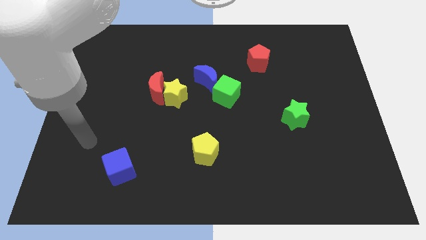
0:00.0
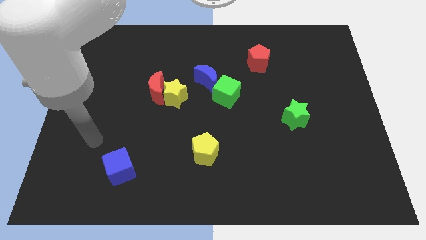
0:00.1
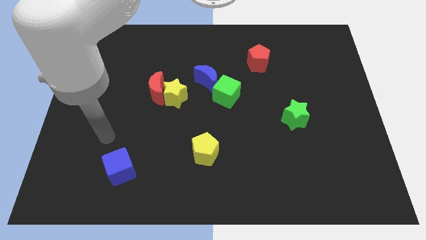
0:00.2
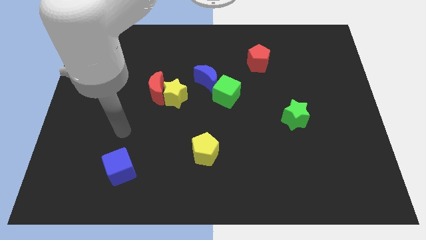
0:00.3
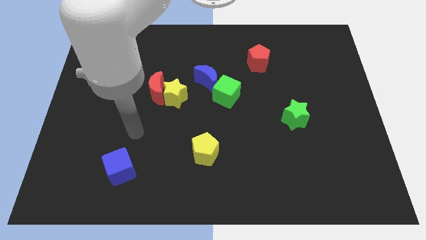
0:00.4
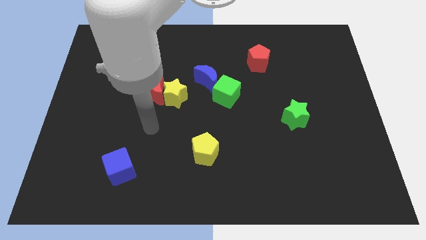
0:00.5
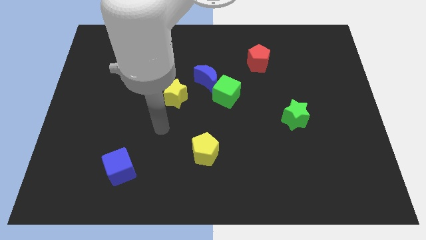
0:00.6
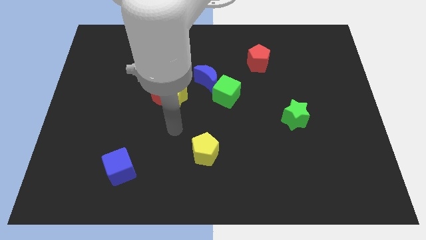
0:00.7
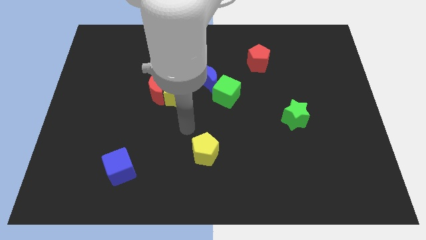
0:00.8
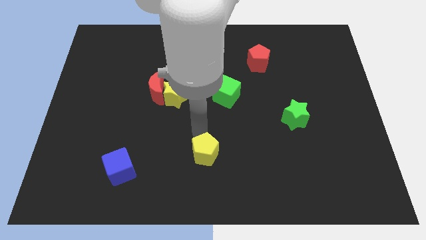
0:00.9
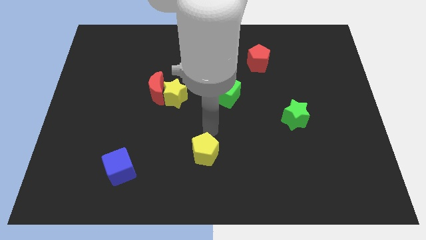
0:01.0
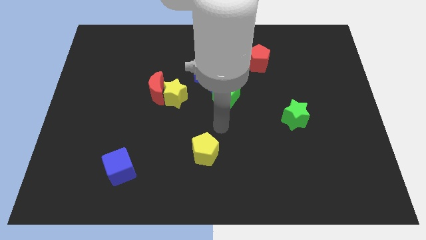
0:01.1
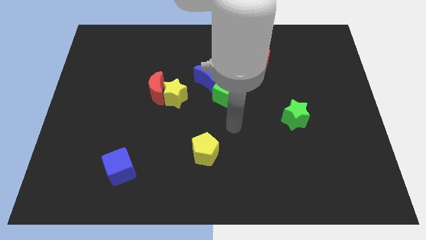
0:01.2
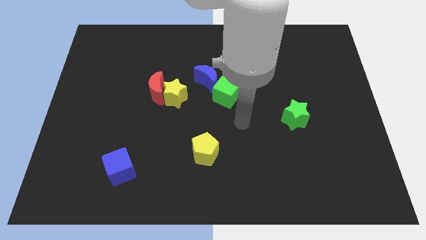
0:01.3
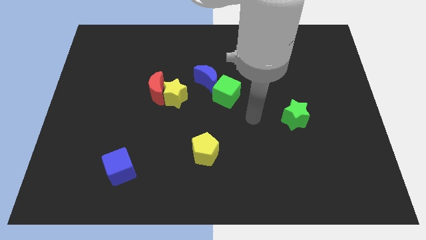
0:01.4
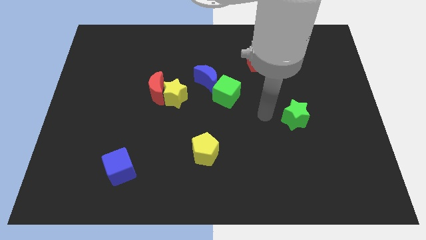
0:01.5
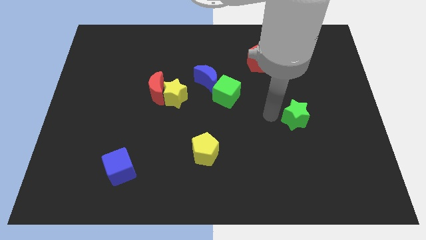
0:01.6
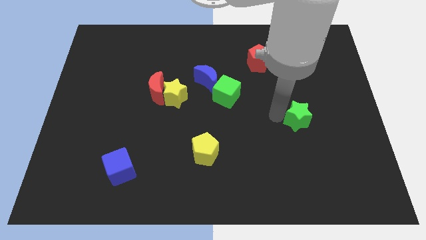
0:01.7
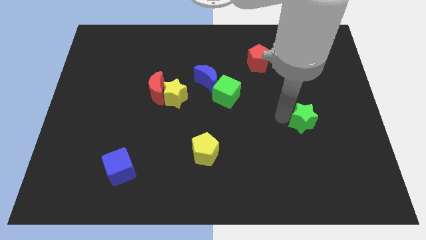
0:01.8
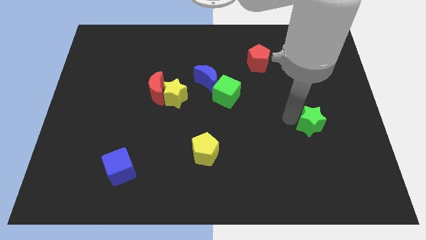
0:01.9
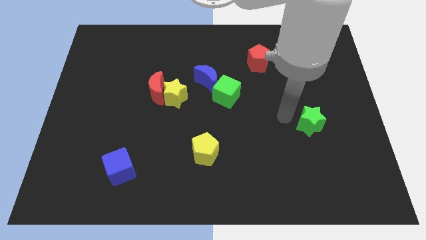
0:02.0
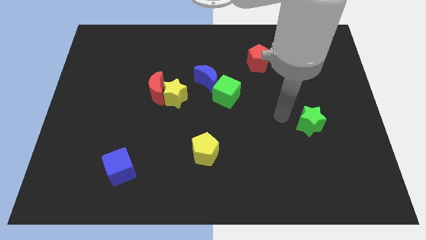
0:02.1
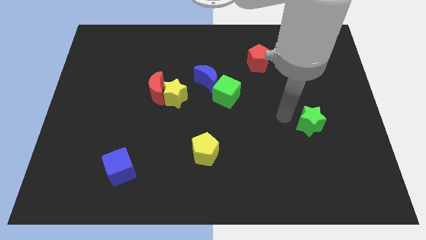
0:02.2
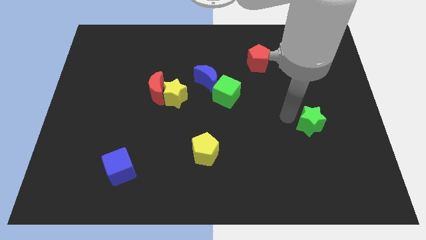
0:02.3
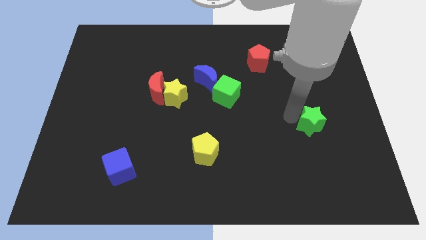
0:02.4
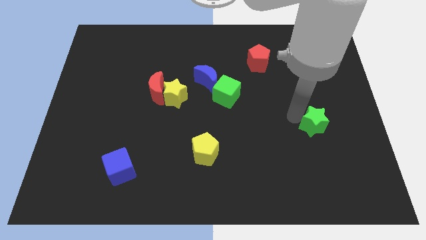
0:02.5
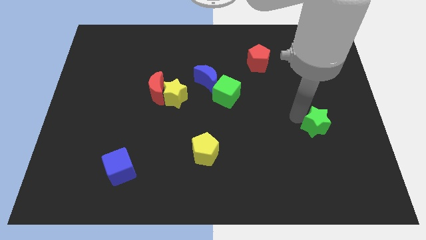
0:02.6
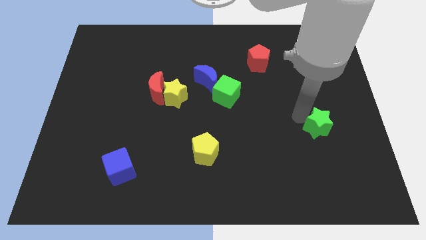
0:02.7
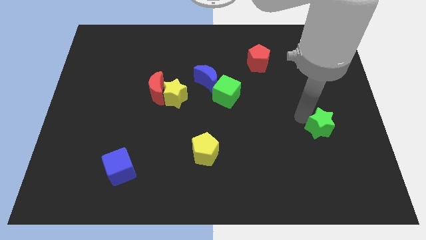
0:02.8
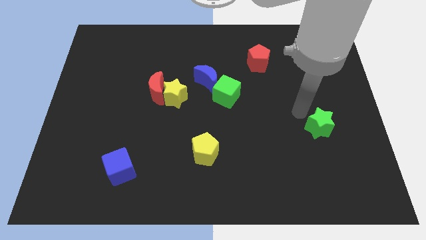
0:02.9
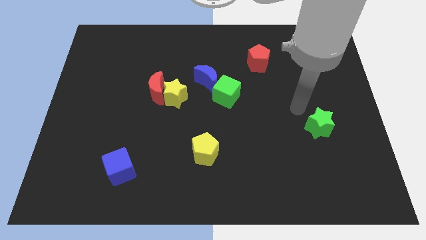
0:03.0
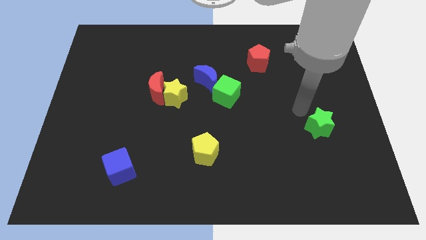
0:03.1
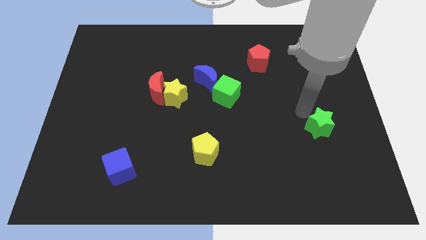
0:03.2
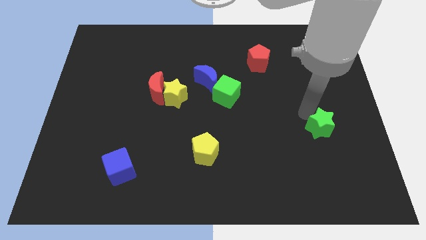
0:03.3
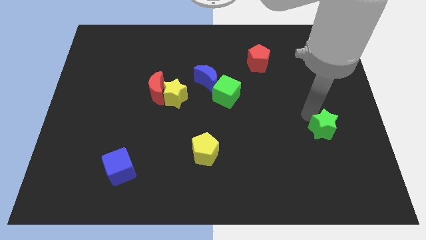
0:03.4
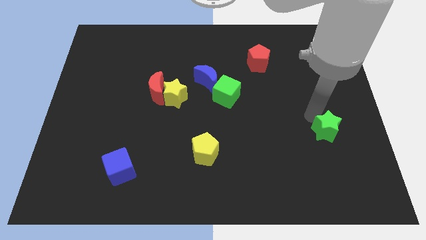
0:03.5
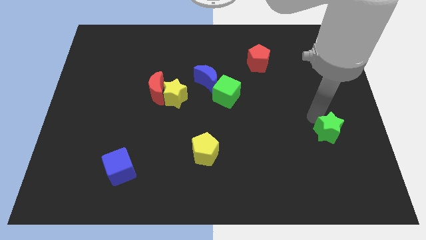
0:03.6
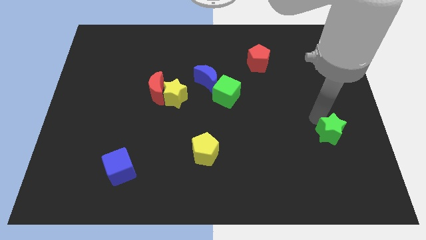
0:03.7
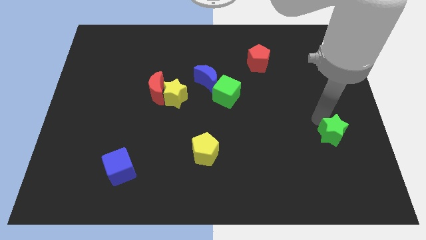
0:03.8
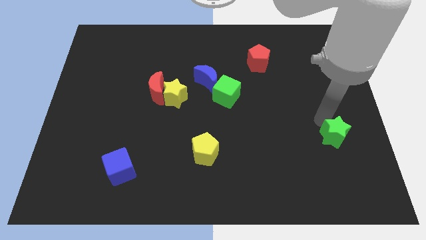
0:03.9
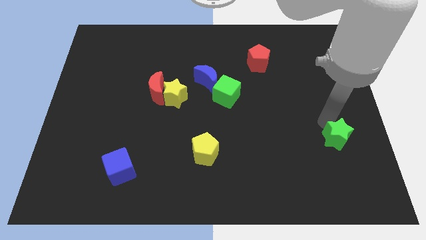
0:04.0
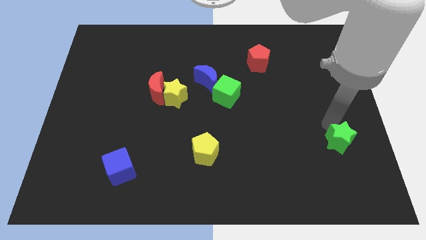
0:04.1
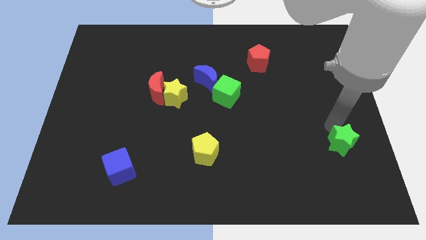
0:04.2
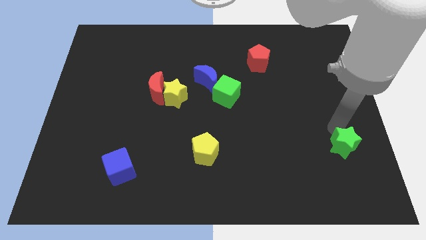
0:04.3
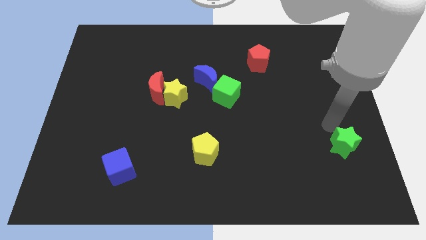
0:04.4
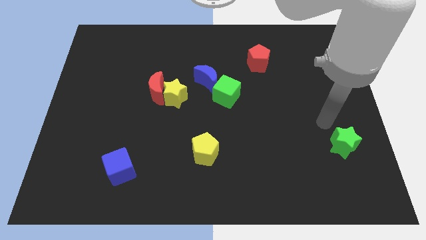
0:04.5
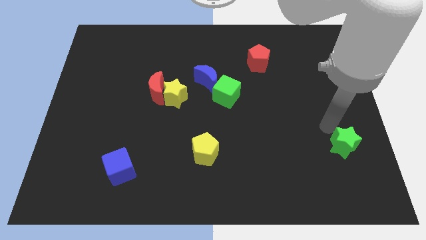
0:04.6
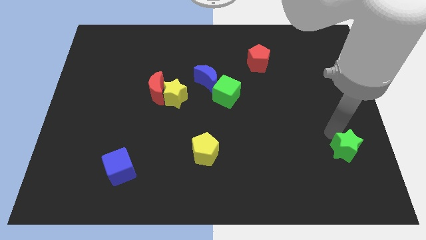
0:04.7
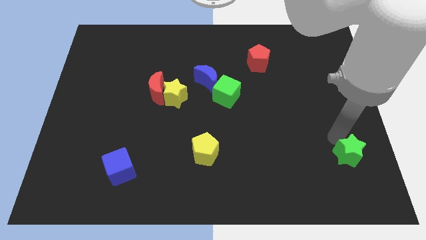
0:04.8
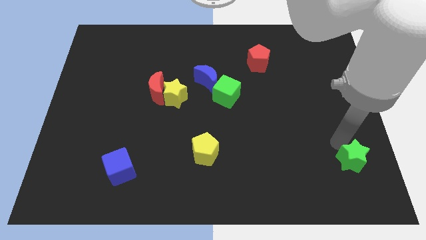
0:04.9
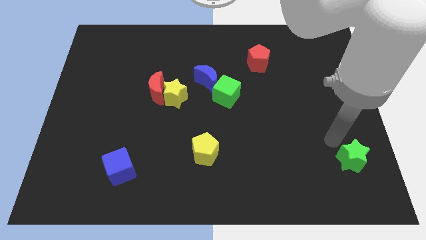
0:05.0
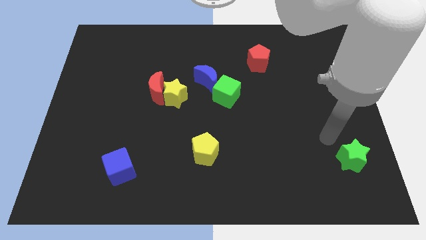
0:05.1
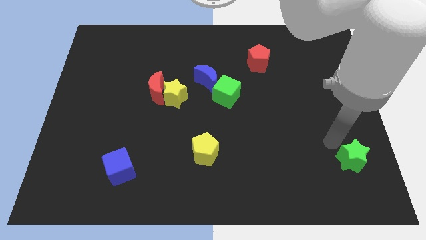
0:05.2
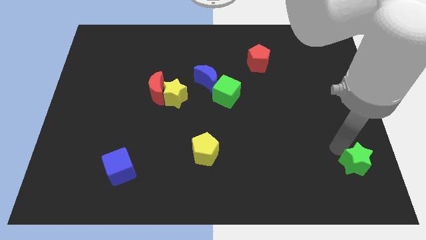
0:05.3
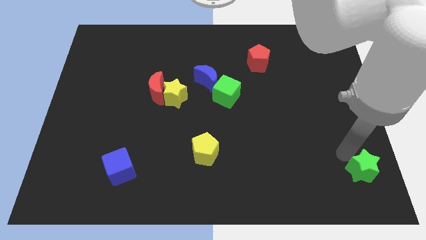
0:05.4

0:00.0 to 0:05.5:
move the green star to the bottom right corner

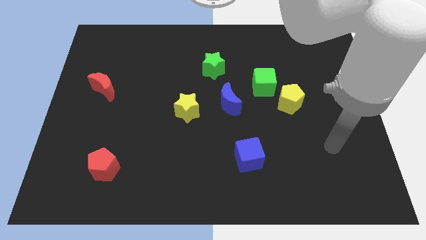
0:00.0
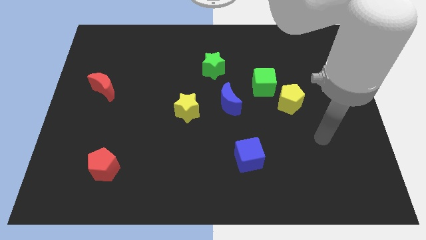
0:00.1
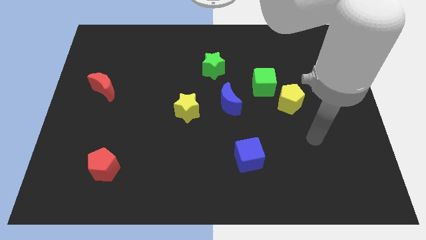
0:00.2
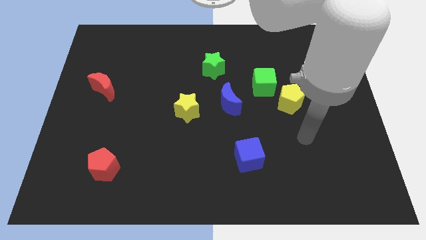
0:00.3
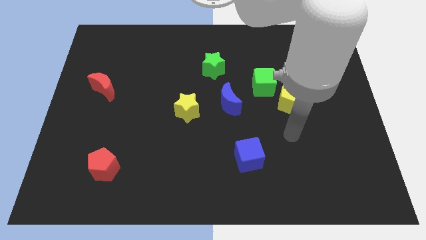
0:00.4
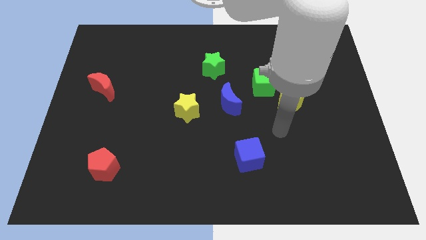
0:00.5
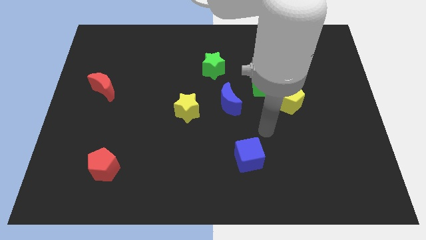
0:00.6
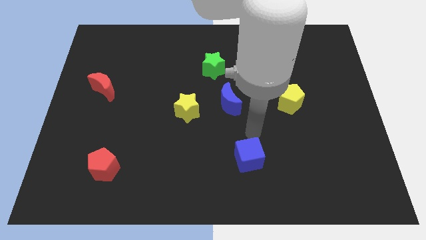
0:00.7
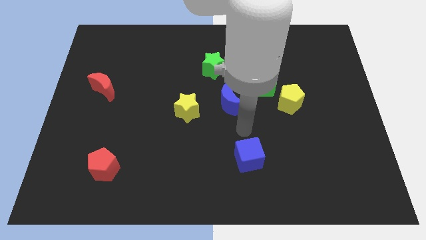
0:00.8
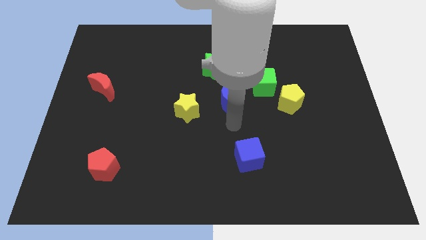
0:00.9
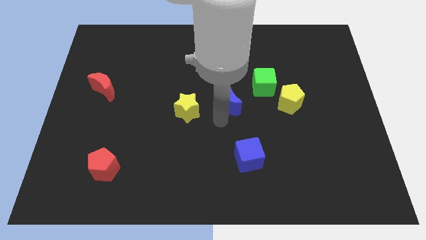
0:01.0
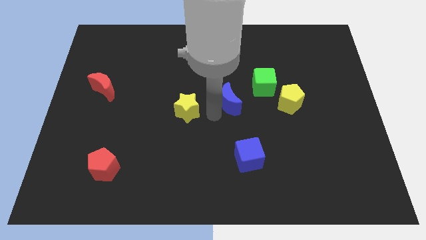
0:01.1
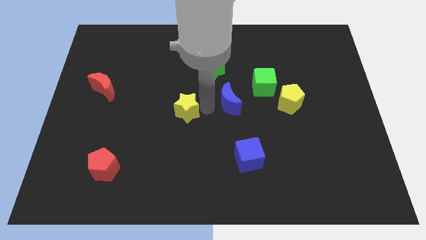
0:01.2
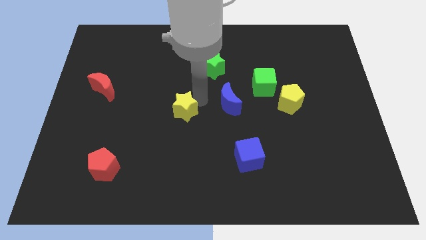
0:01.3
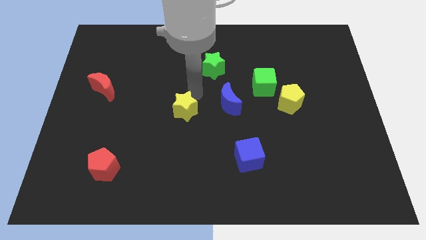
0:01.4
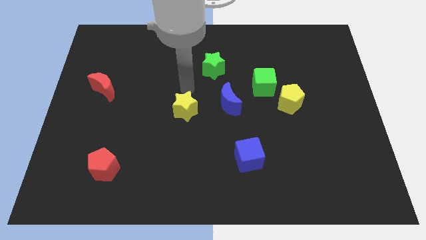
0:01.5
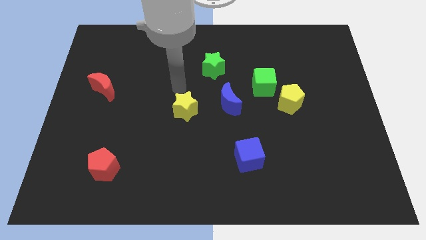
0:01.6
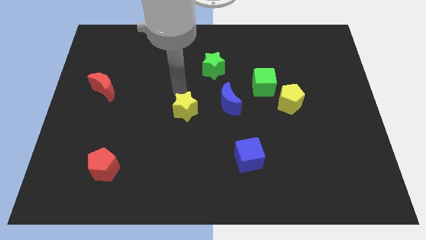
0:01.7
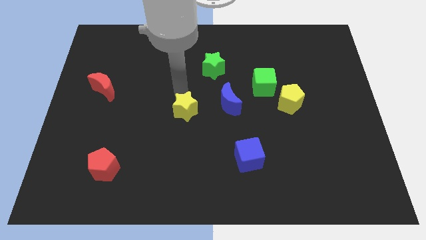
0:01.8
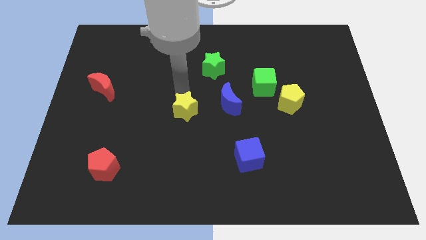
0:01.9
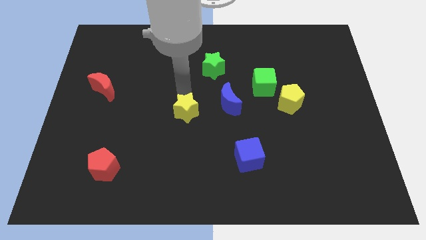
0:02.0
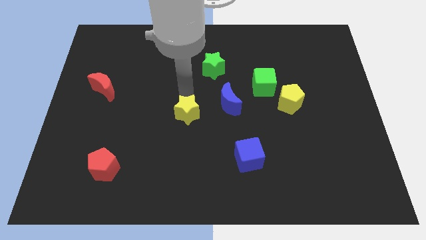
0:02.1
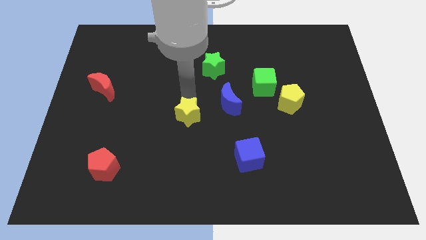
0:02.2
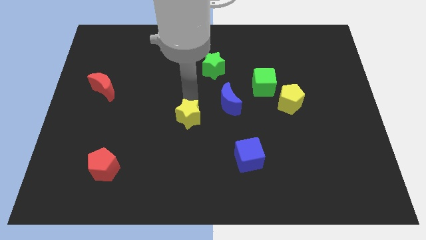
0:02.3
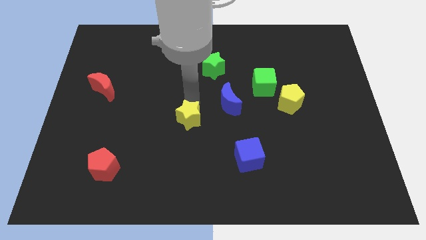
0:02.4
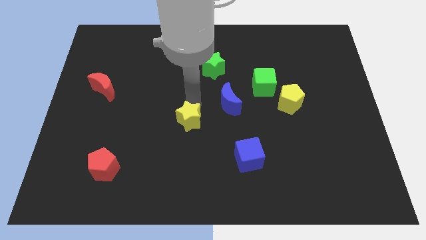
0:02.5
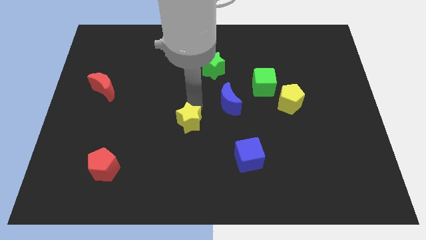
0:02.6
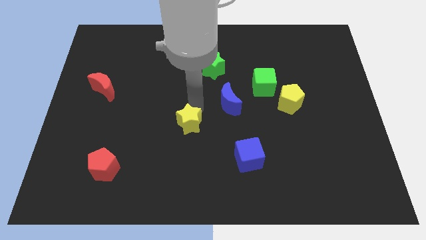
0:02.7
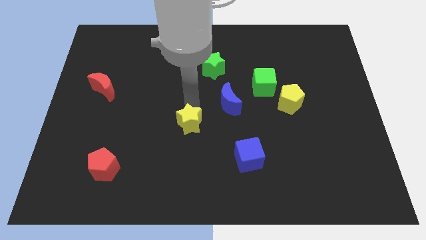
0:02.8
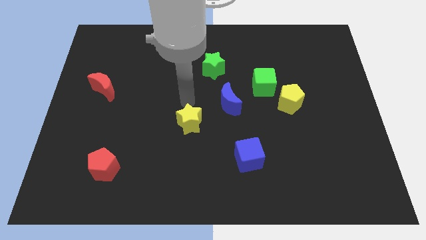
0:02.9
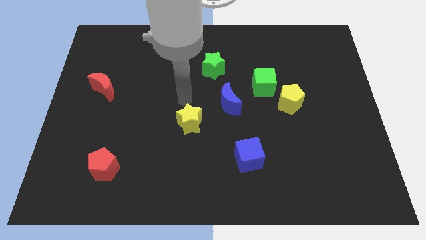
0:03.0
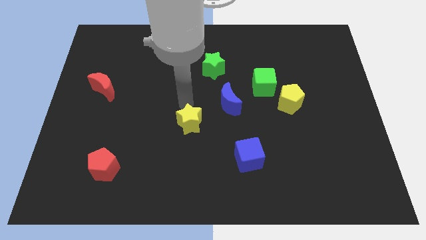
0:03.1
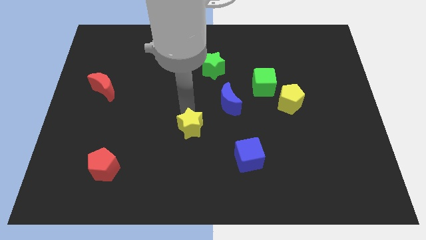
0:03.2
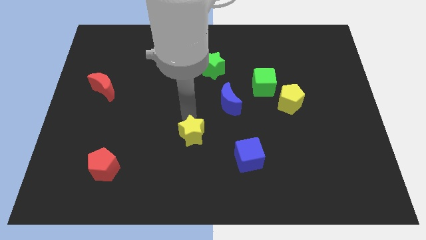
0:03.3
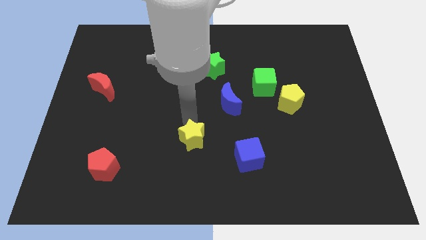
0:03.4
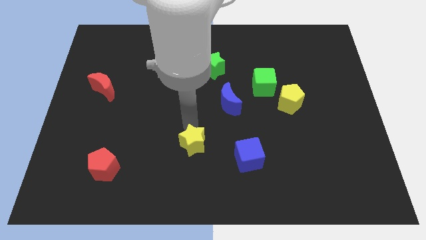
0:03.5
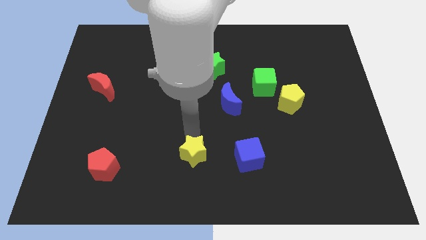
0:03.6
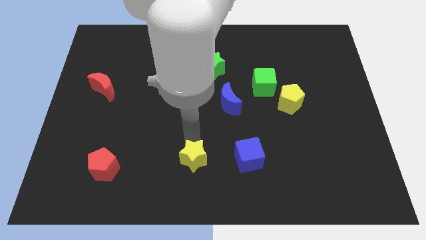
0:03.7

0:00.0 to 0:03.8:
push the yellow star to the bottom side
